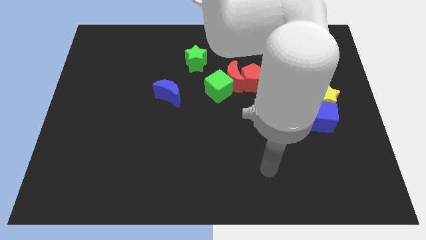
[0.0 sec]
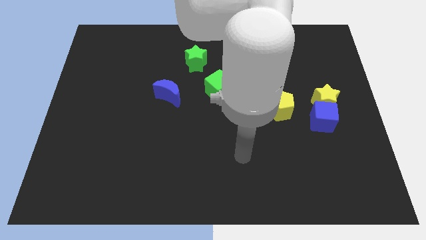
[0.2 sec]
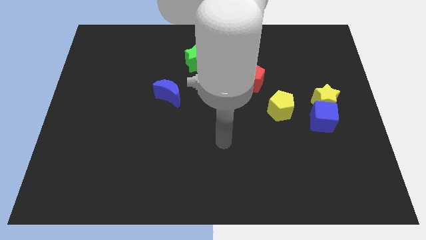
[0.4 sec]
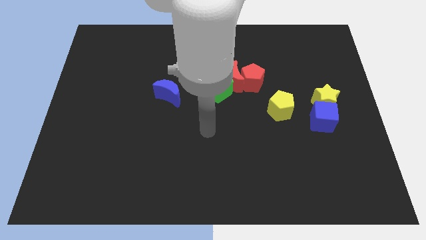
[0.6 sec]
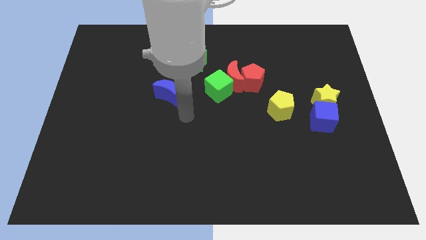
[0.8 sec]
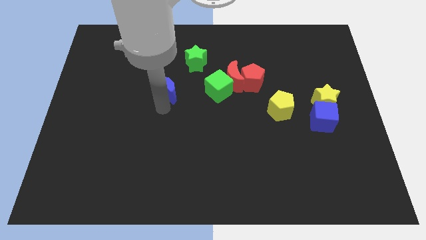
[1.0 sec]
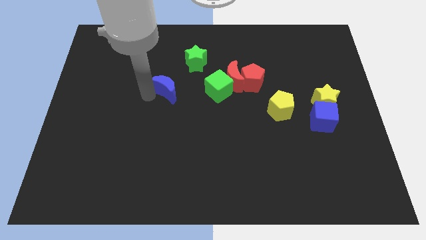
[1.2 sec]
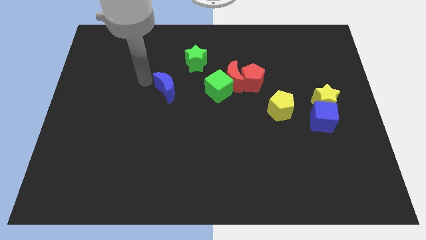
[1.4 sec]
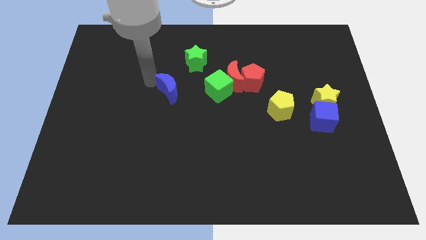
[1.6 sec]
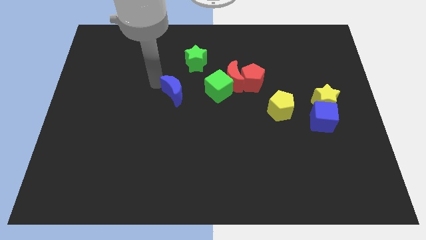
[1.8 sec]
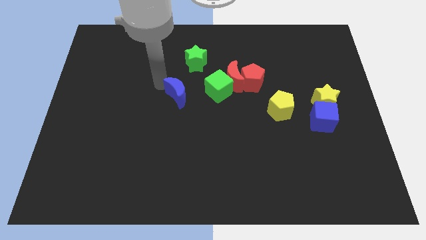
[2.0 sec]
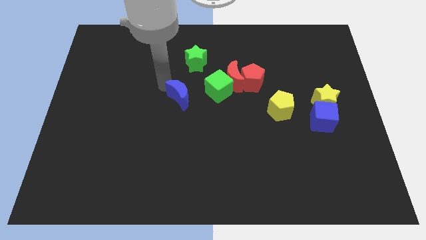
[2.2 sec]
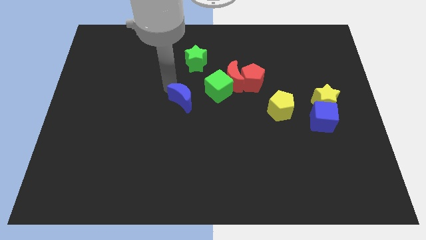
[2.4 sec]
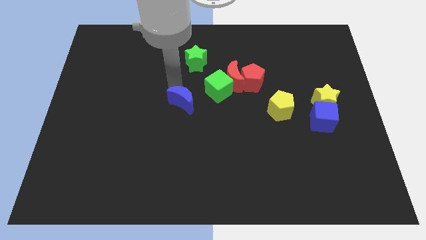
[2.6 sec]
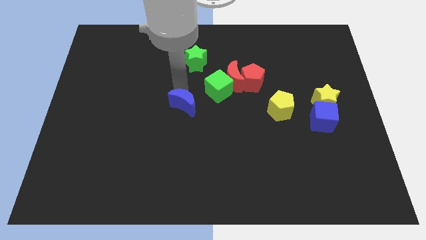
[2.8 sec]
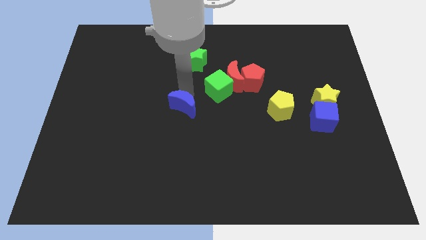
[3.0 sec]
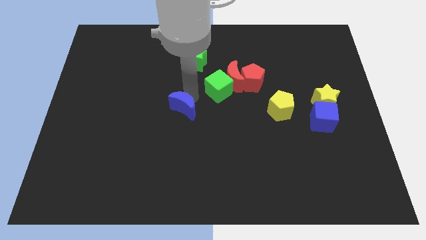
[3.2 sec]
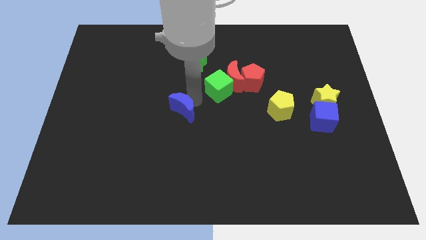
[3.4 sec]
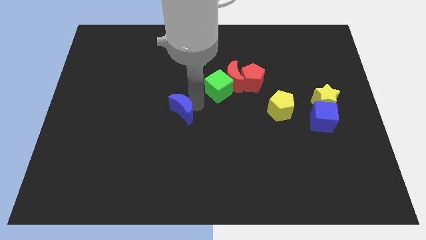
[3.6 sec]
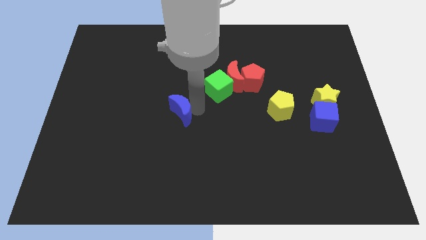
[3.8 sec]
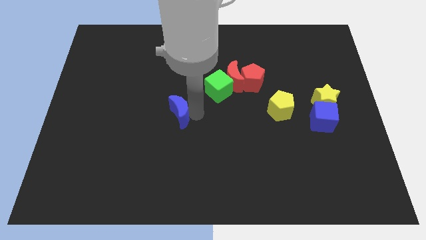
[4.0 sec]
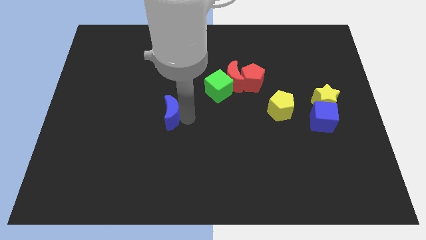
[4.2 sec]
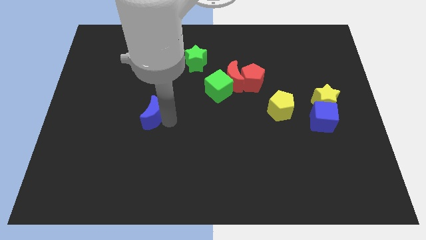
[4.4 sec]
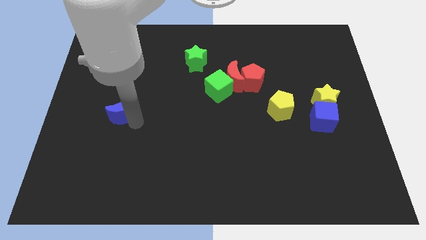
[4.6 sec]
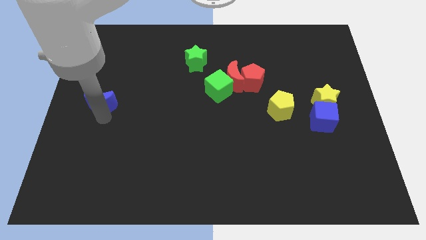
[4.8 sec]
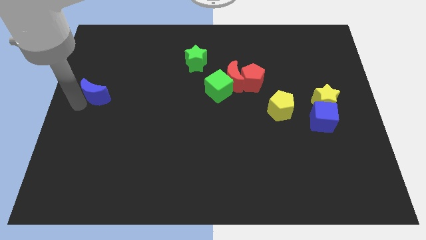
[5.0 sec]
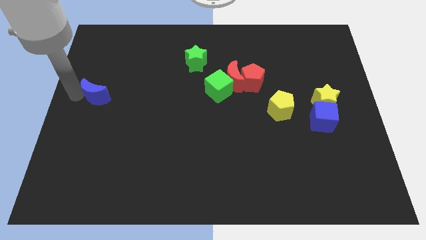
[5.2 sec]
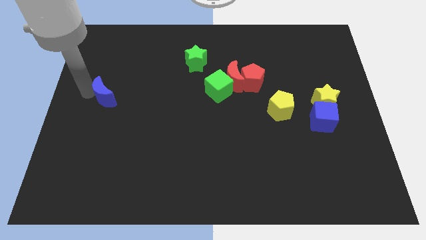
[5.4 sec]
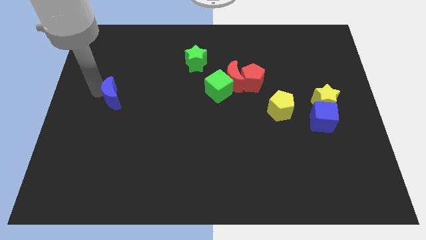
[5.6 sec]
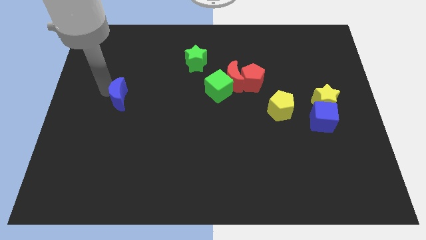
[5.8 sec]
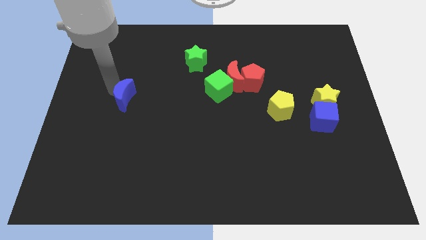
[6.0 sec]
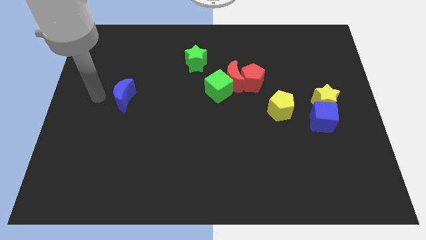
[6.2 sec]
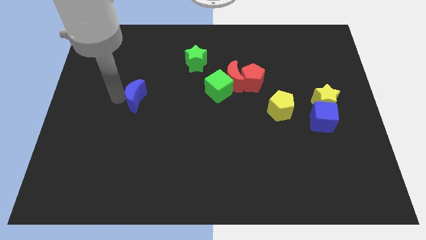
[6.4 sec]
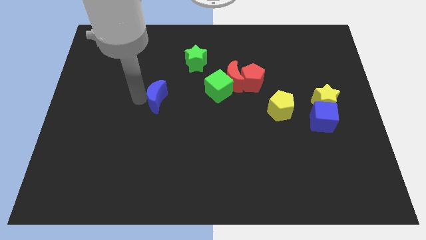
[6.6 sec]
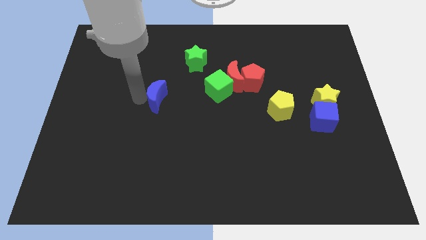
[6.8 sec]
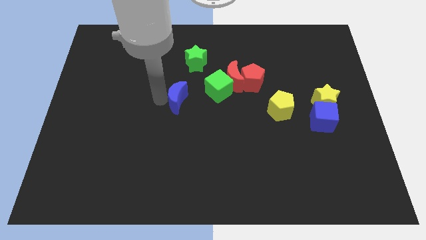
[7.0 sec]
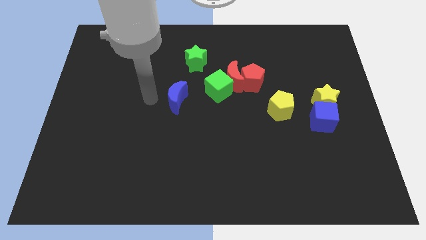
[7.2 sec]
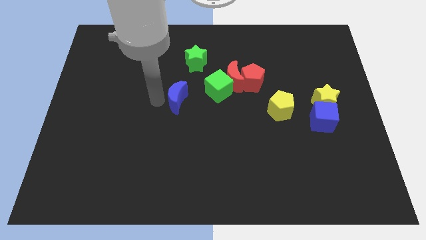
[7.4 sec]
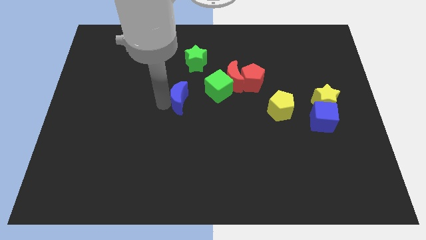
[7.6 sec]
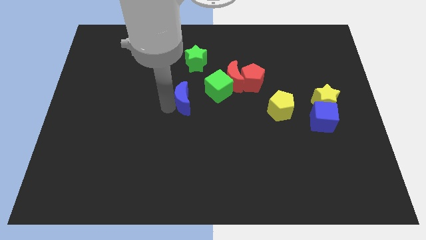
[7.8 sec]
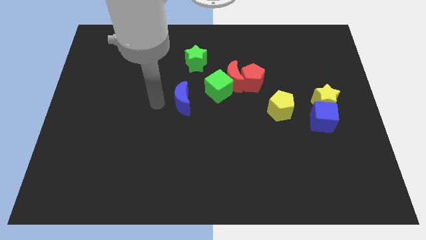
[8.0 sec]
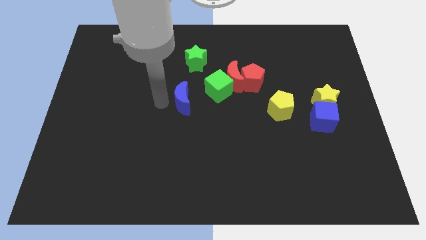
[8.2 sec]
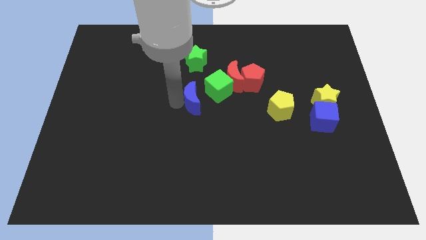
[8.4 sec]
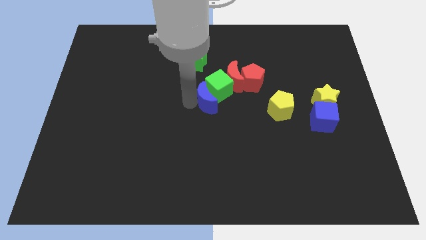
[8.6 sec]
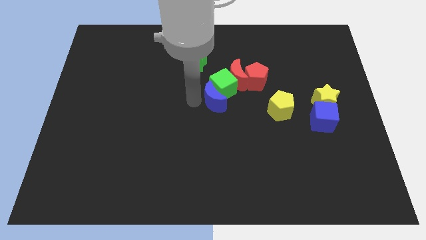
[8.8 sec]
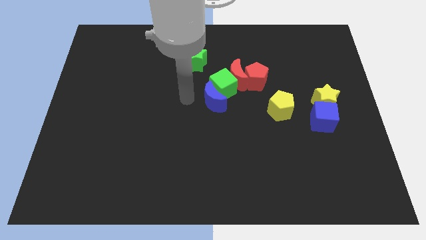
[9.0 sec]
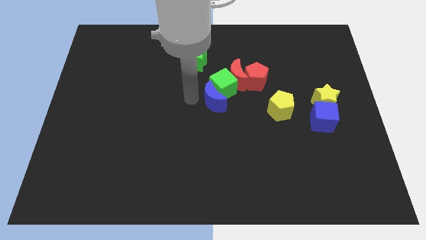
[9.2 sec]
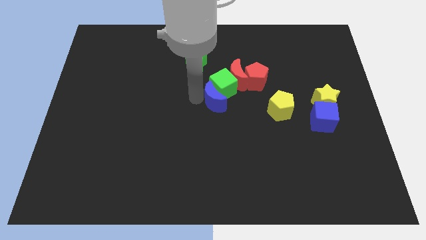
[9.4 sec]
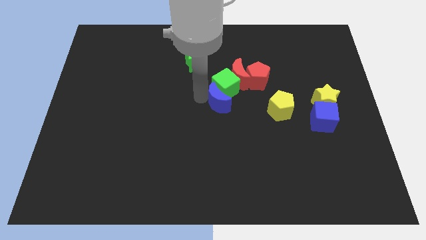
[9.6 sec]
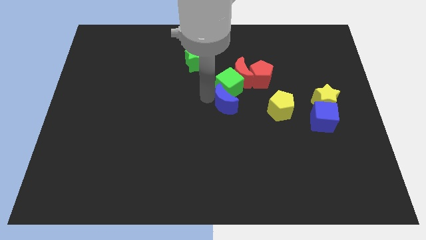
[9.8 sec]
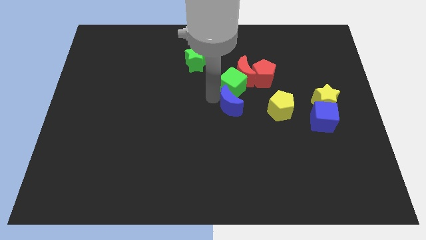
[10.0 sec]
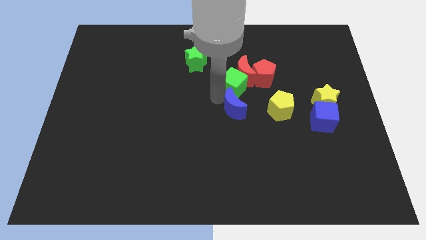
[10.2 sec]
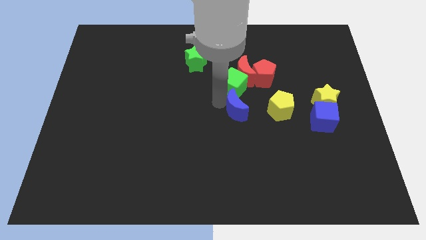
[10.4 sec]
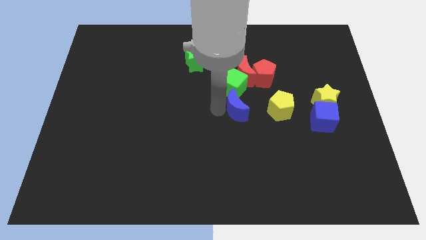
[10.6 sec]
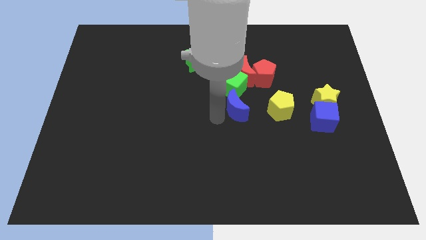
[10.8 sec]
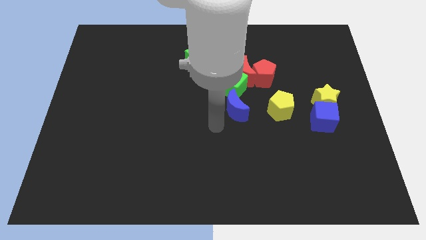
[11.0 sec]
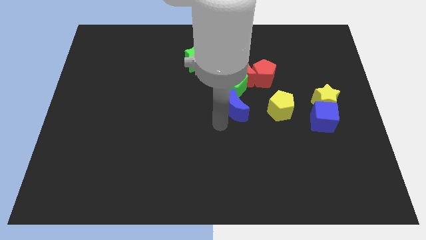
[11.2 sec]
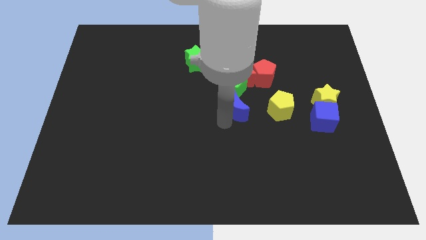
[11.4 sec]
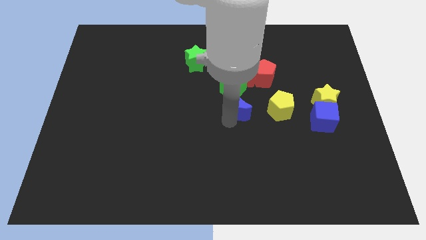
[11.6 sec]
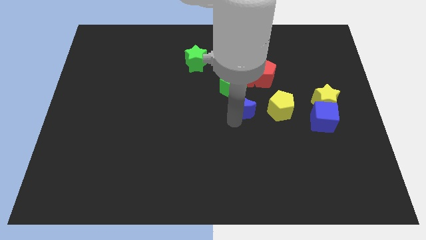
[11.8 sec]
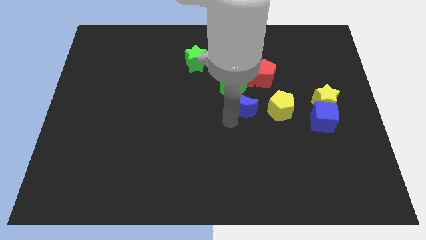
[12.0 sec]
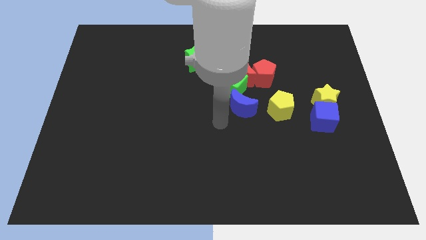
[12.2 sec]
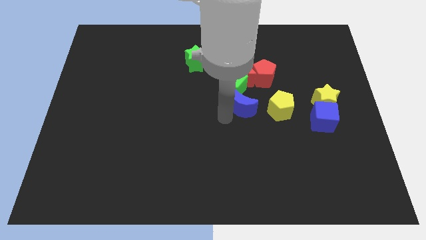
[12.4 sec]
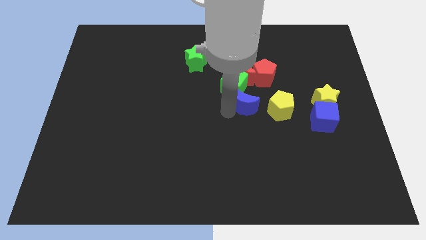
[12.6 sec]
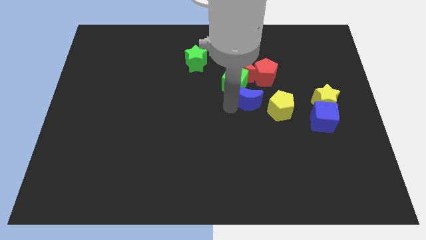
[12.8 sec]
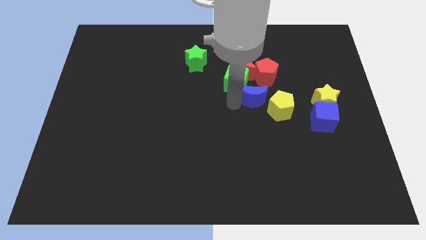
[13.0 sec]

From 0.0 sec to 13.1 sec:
slide the blue moon to the right

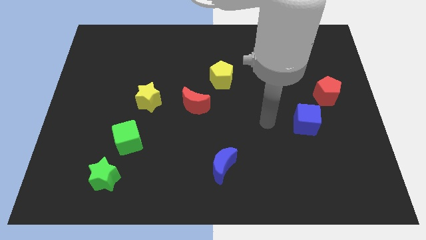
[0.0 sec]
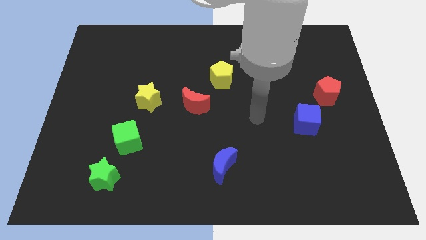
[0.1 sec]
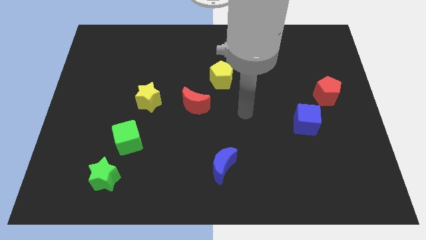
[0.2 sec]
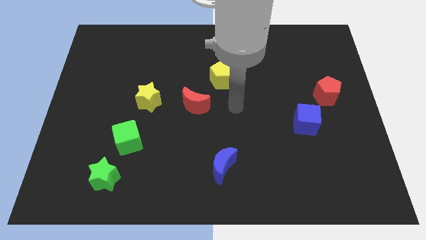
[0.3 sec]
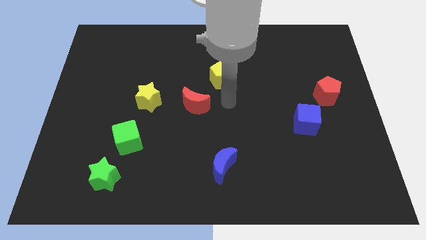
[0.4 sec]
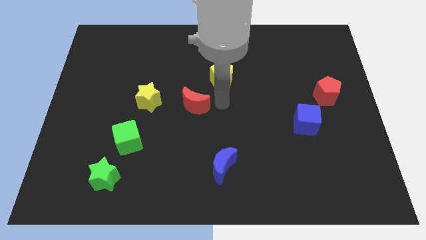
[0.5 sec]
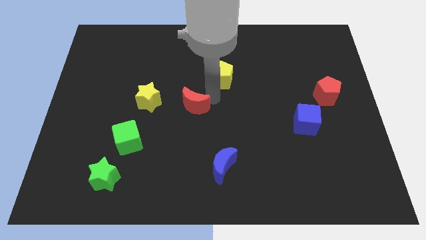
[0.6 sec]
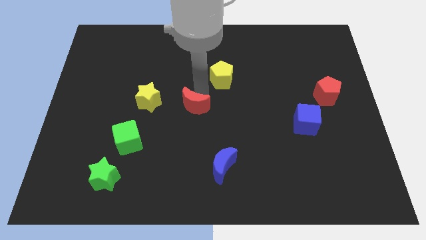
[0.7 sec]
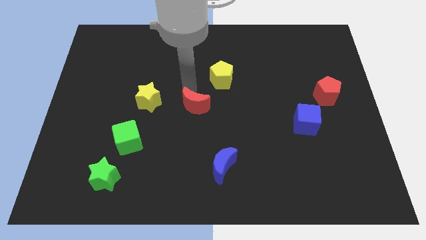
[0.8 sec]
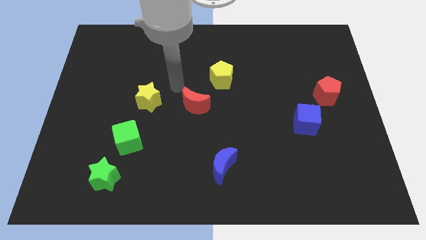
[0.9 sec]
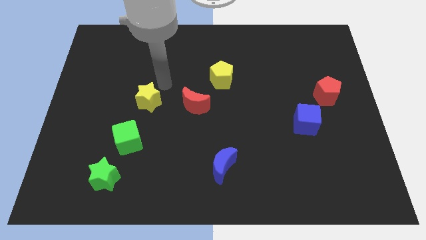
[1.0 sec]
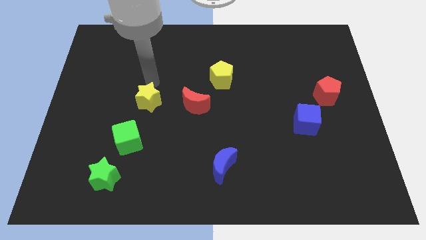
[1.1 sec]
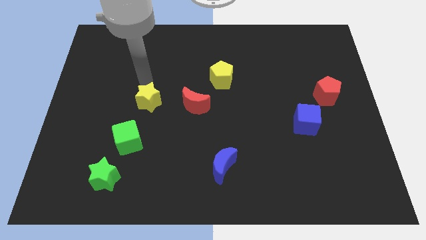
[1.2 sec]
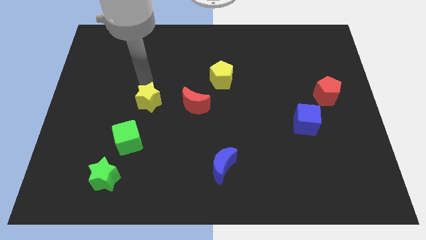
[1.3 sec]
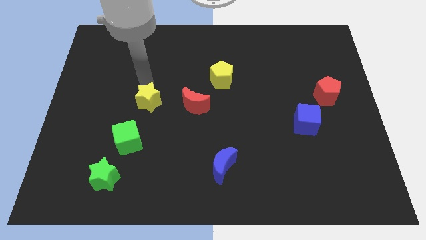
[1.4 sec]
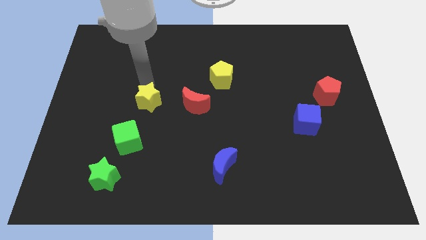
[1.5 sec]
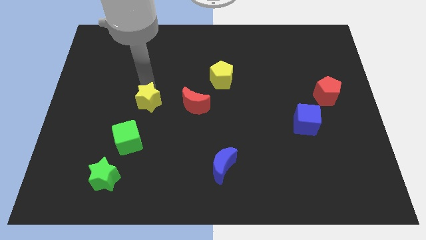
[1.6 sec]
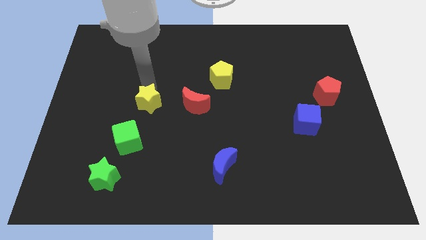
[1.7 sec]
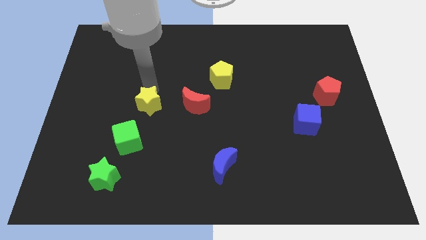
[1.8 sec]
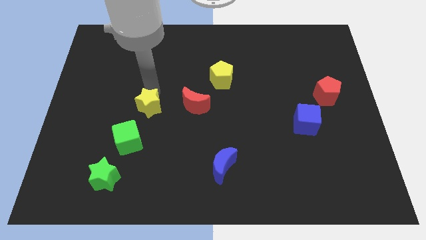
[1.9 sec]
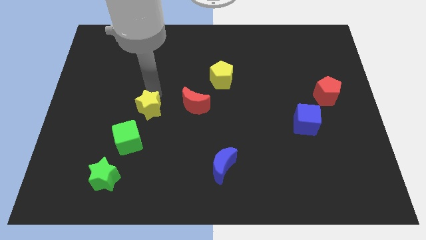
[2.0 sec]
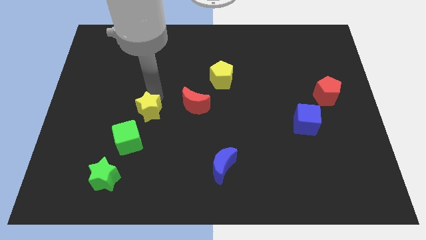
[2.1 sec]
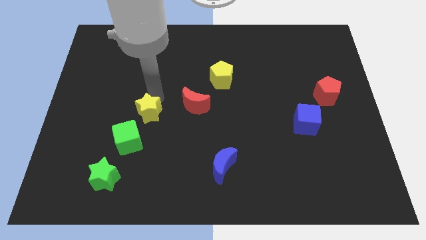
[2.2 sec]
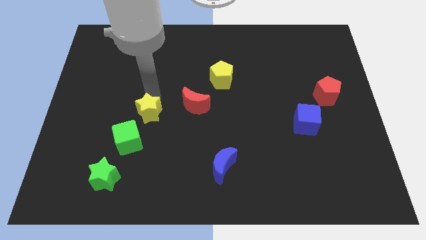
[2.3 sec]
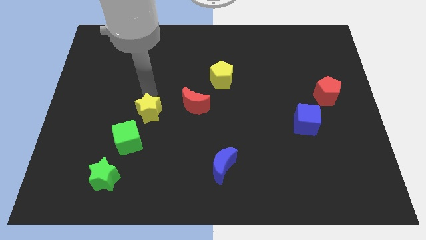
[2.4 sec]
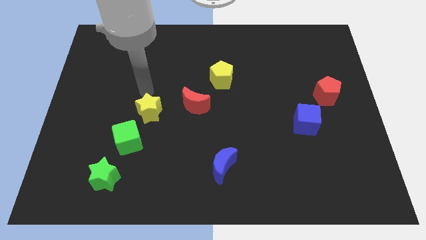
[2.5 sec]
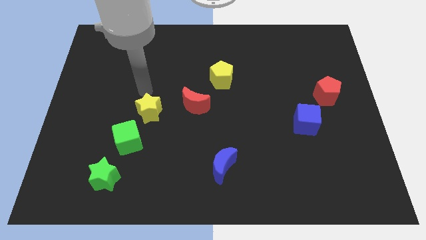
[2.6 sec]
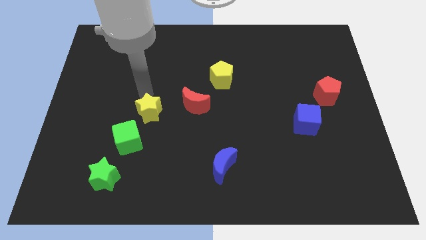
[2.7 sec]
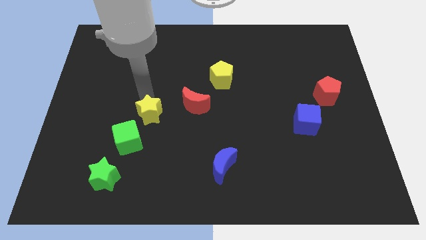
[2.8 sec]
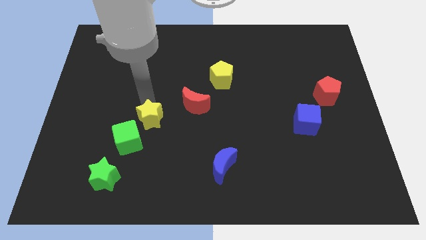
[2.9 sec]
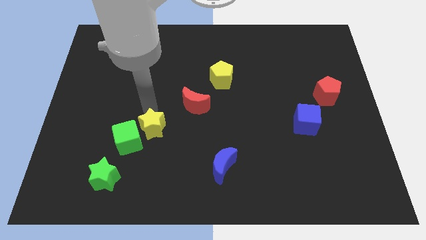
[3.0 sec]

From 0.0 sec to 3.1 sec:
move the yellow star downwards a bit
